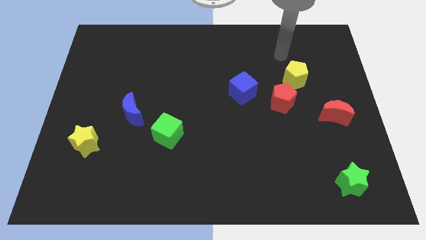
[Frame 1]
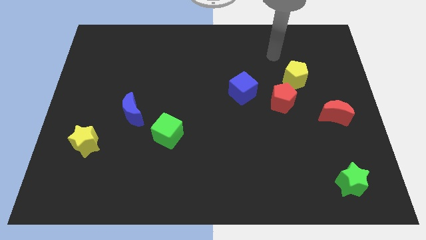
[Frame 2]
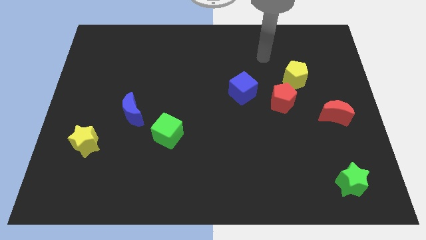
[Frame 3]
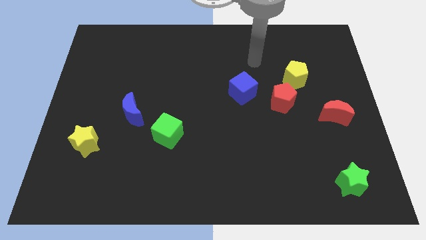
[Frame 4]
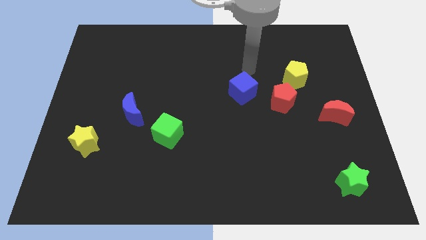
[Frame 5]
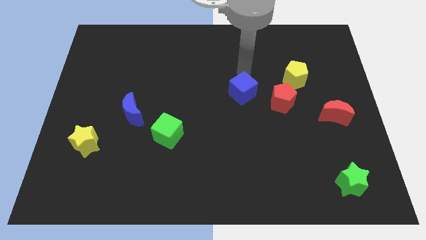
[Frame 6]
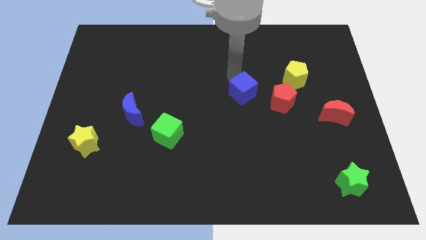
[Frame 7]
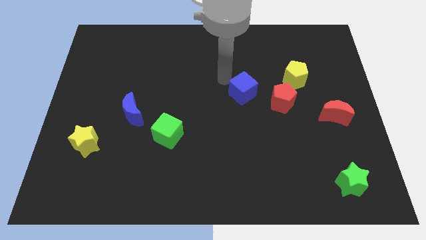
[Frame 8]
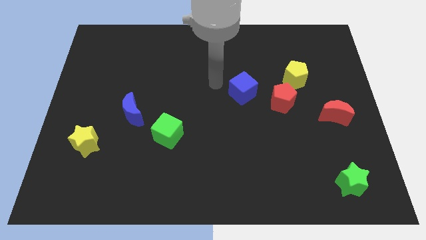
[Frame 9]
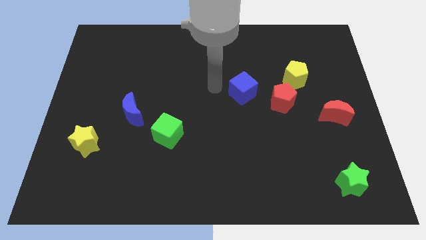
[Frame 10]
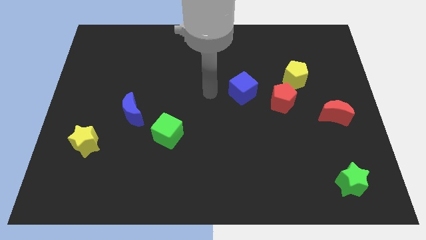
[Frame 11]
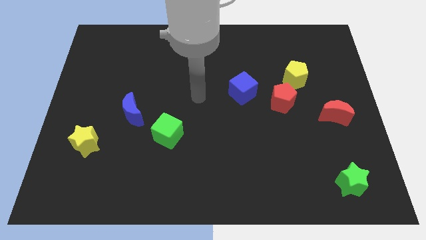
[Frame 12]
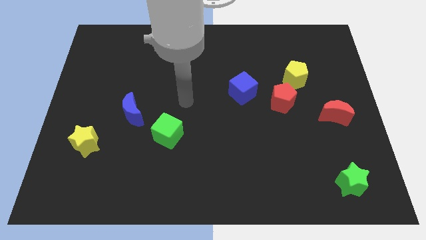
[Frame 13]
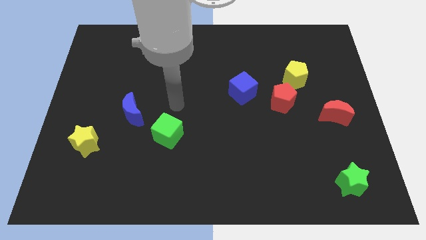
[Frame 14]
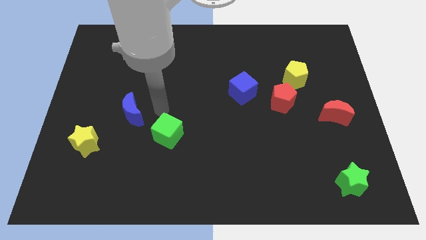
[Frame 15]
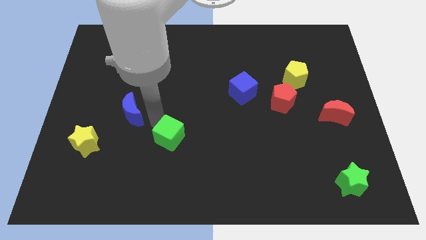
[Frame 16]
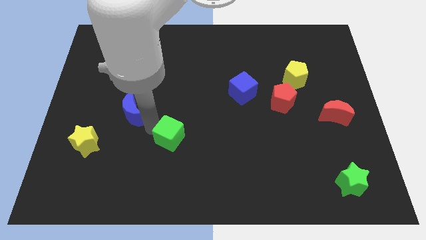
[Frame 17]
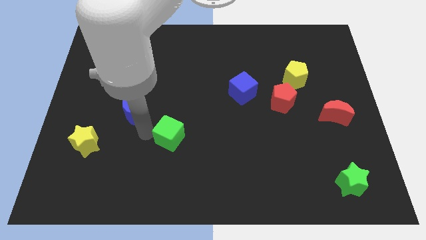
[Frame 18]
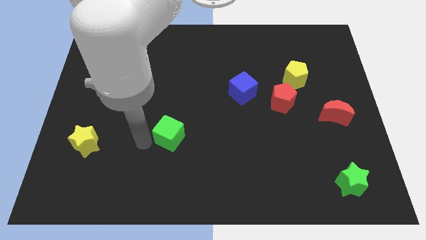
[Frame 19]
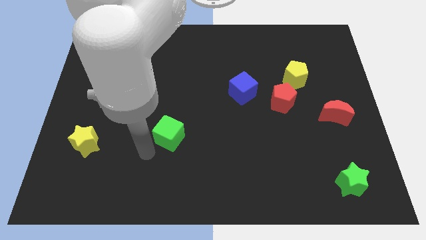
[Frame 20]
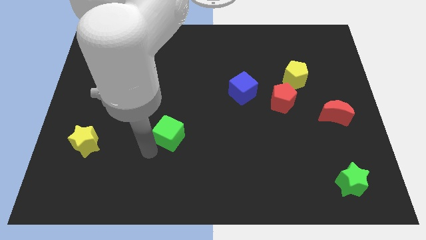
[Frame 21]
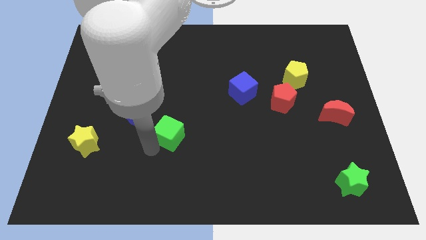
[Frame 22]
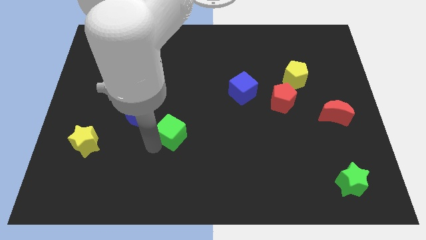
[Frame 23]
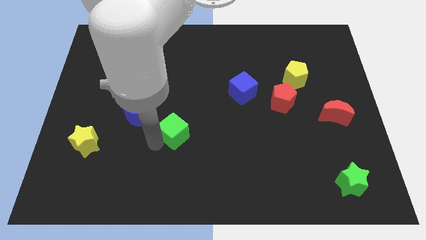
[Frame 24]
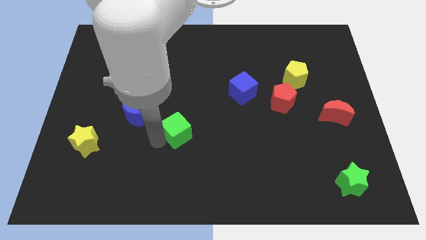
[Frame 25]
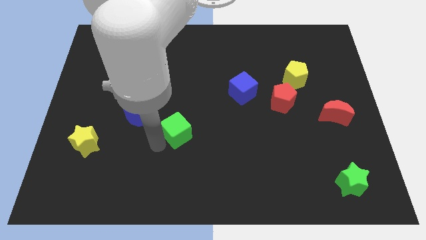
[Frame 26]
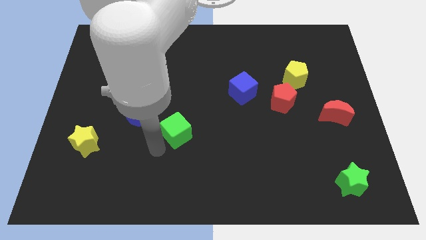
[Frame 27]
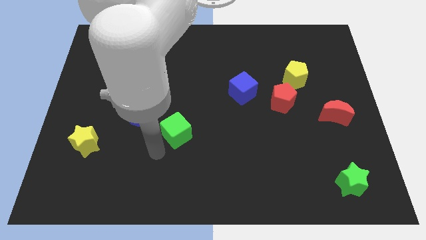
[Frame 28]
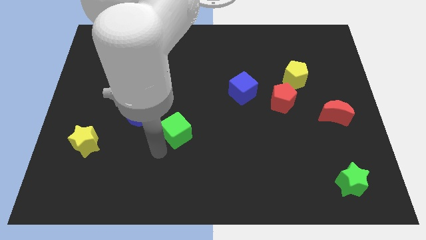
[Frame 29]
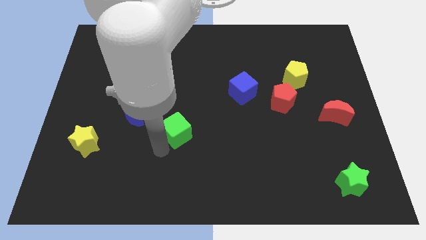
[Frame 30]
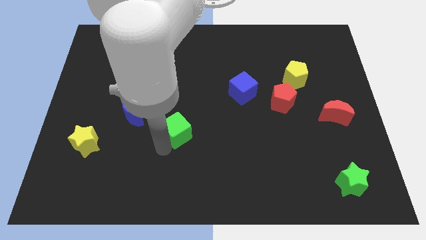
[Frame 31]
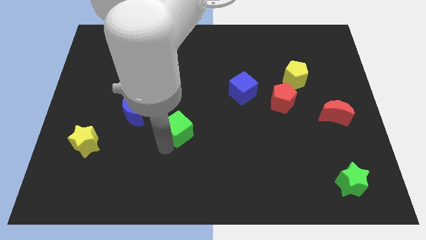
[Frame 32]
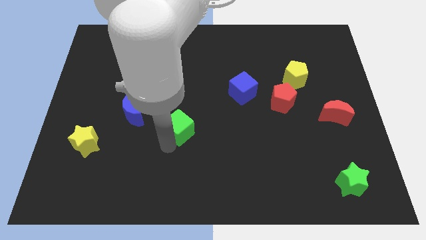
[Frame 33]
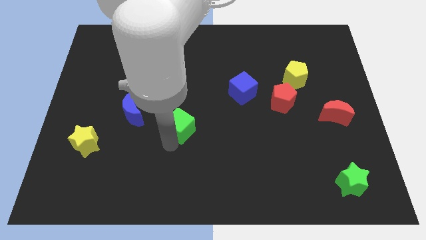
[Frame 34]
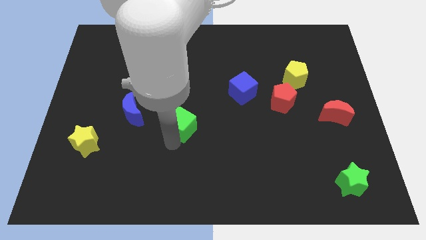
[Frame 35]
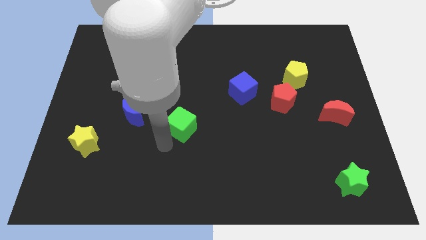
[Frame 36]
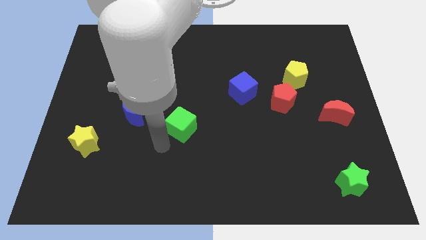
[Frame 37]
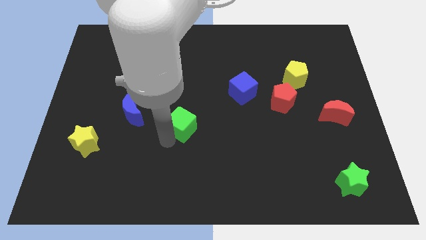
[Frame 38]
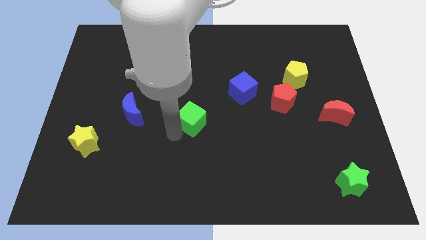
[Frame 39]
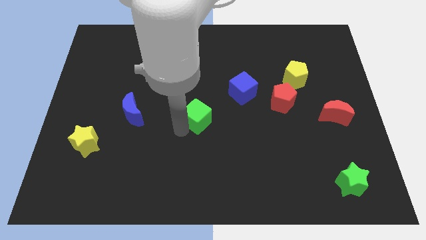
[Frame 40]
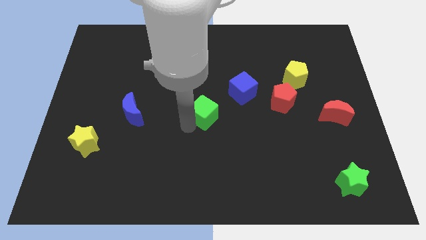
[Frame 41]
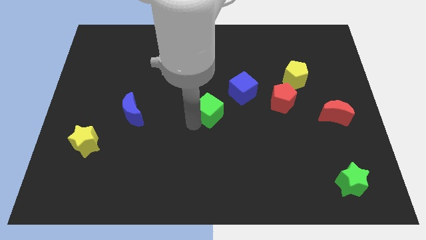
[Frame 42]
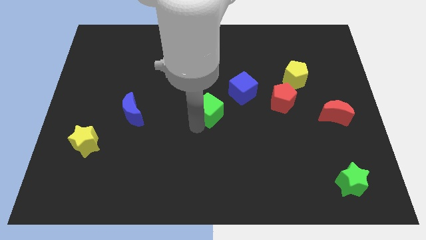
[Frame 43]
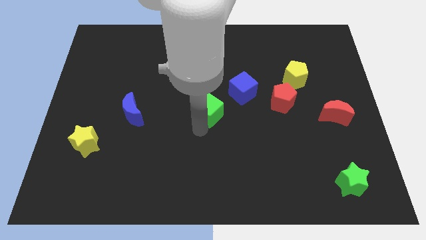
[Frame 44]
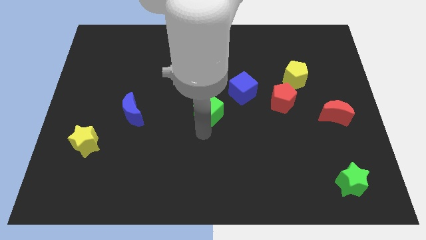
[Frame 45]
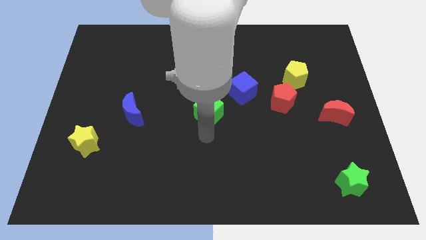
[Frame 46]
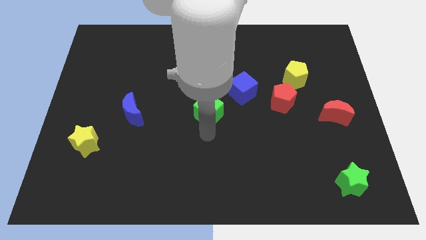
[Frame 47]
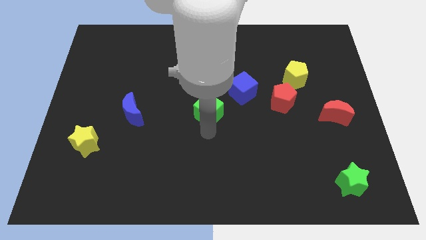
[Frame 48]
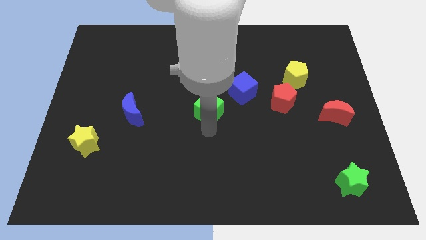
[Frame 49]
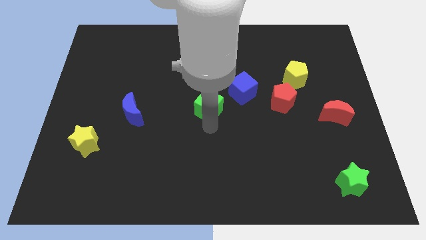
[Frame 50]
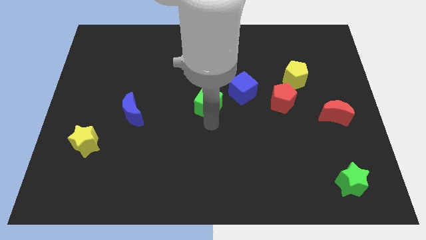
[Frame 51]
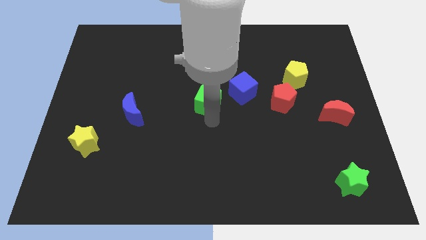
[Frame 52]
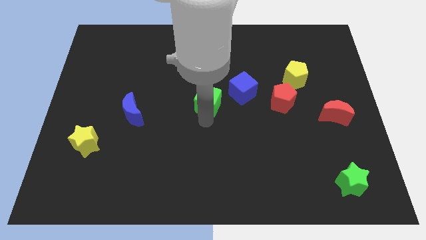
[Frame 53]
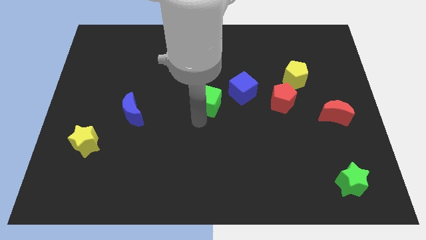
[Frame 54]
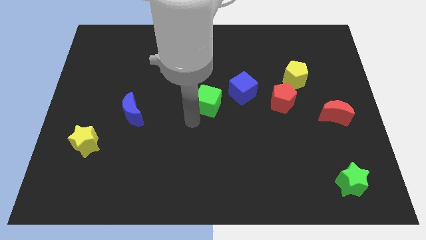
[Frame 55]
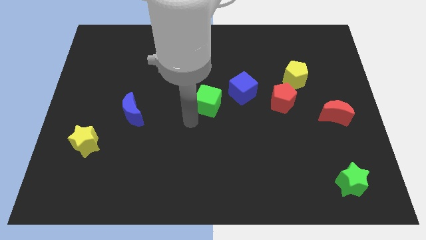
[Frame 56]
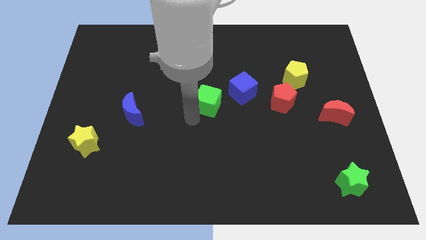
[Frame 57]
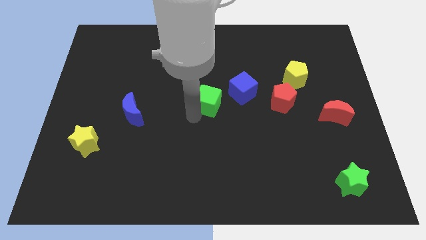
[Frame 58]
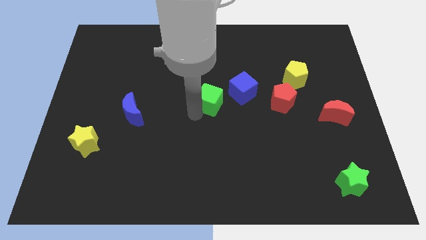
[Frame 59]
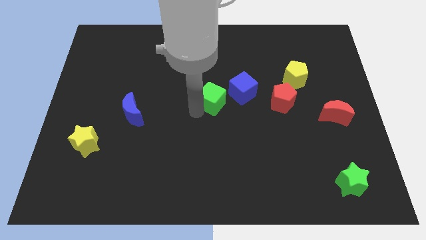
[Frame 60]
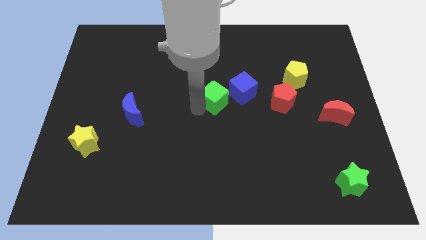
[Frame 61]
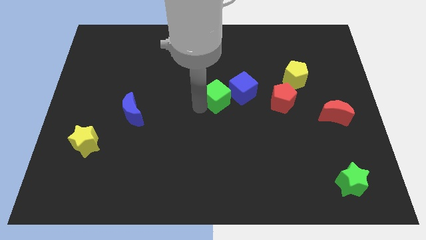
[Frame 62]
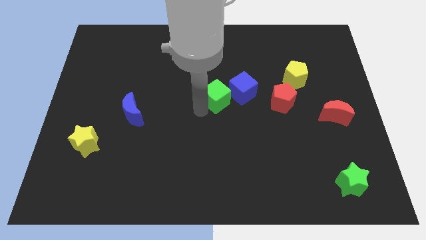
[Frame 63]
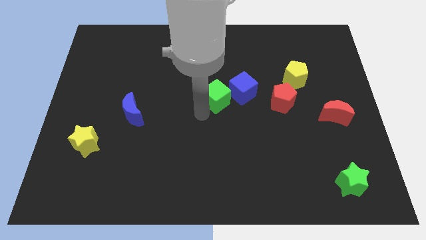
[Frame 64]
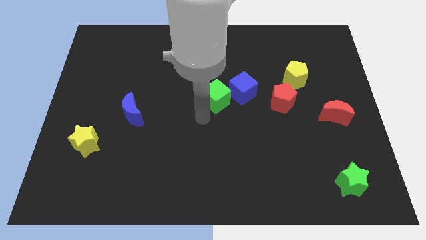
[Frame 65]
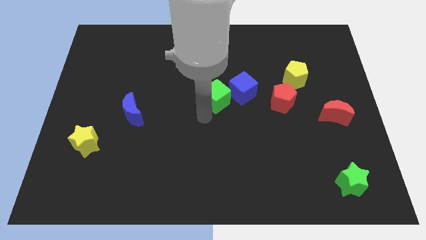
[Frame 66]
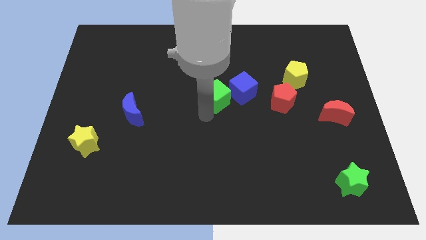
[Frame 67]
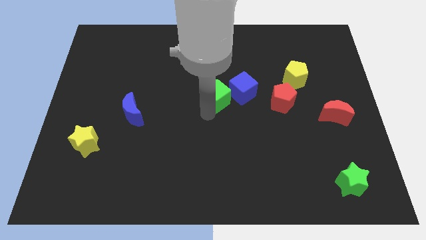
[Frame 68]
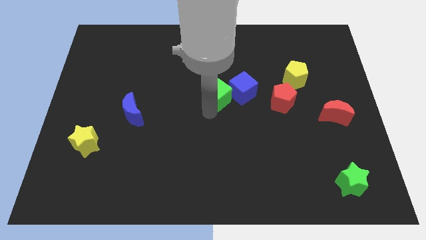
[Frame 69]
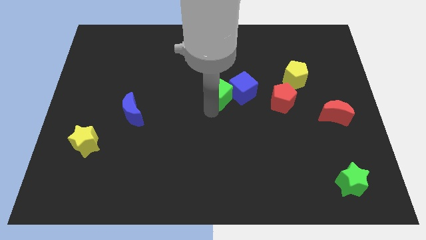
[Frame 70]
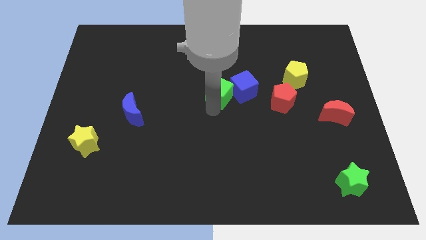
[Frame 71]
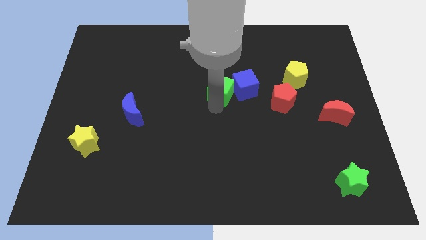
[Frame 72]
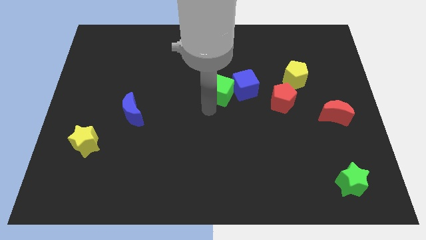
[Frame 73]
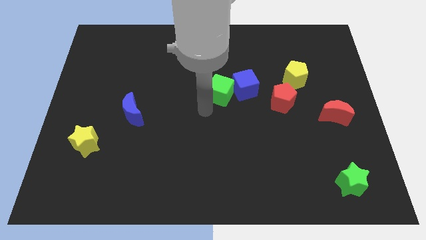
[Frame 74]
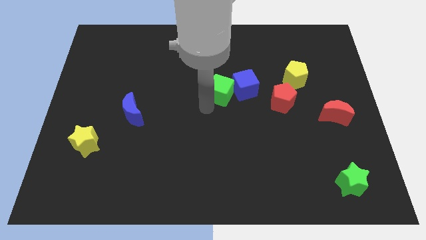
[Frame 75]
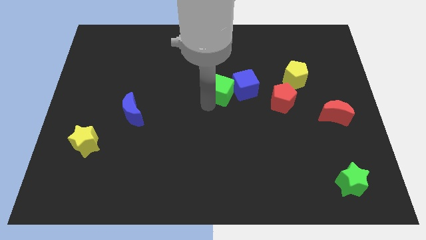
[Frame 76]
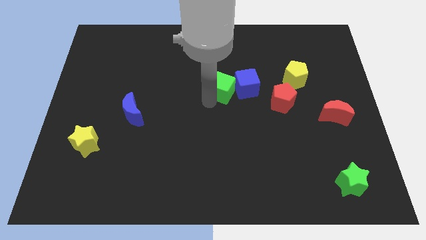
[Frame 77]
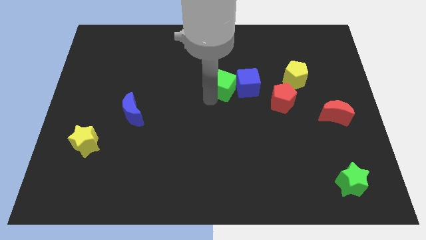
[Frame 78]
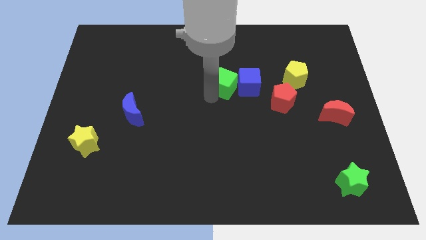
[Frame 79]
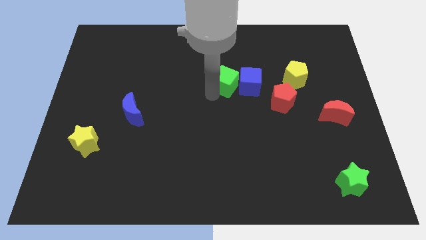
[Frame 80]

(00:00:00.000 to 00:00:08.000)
slide the green cube diagonally up and to the right
